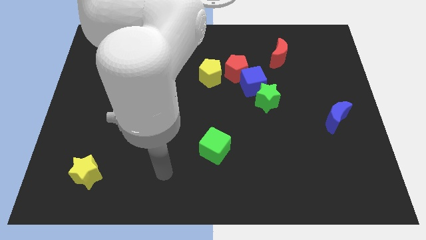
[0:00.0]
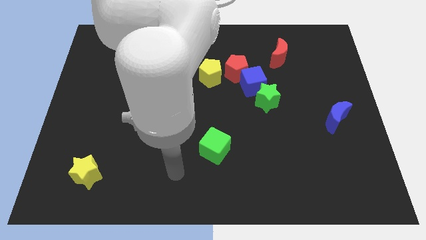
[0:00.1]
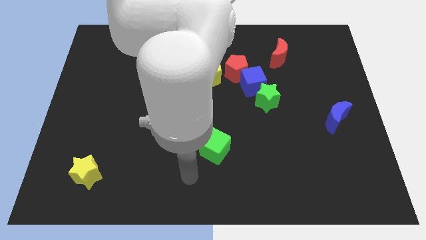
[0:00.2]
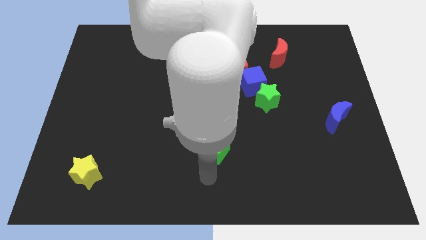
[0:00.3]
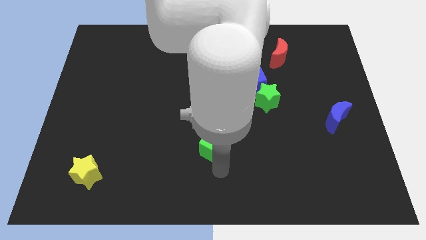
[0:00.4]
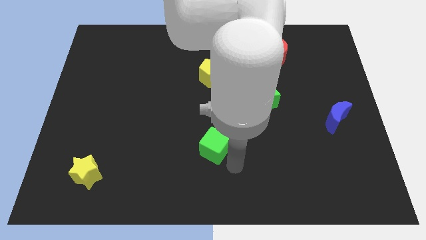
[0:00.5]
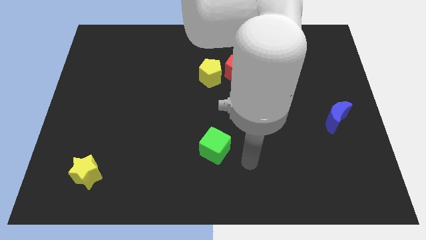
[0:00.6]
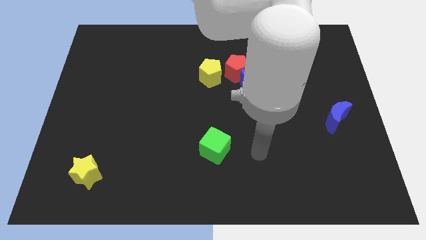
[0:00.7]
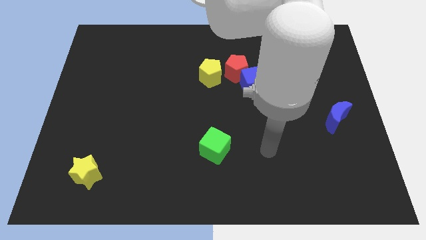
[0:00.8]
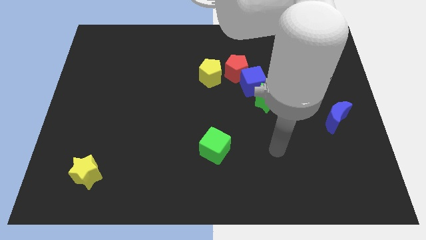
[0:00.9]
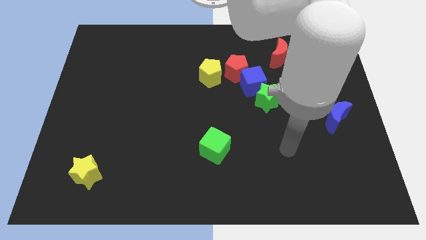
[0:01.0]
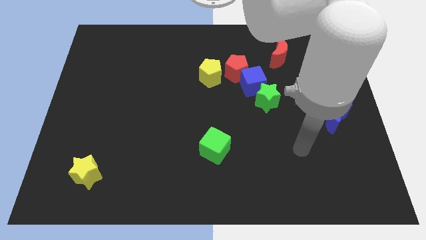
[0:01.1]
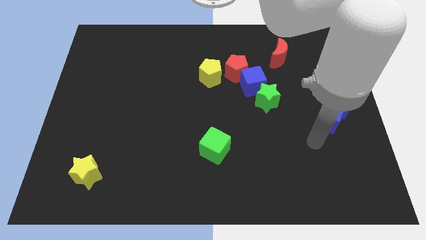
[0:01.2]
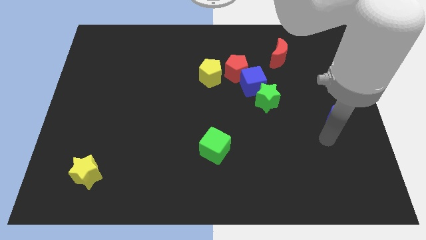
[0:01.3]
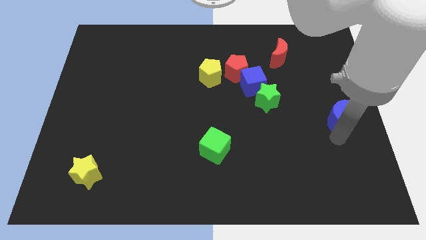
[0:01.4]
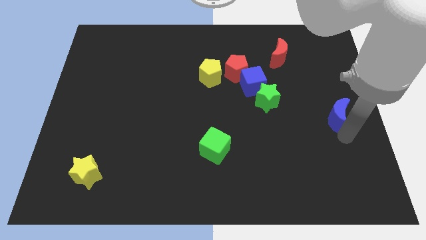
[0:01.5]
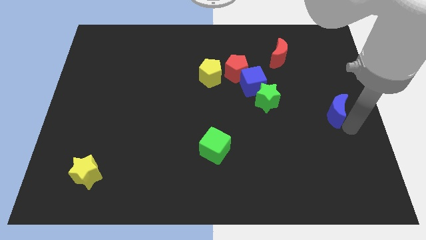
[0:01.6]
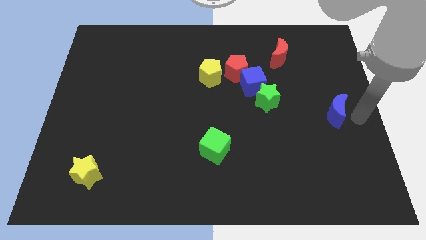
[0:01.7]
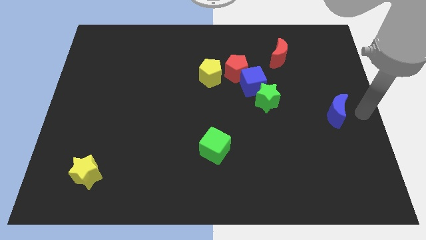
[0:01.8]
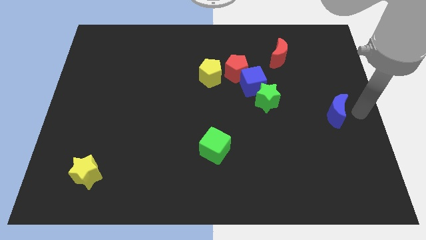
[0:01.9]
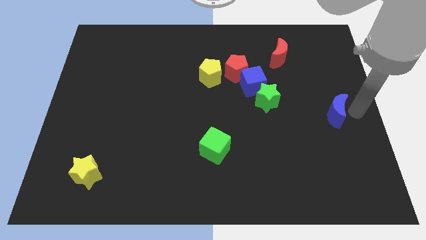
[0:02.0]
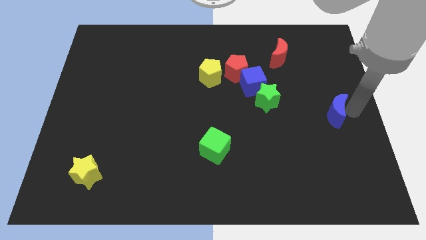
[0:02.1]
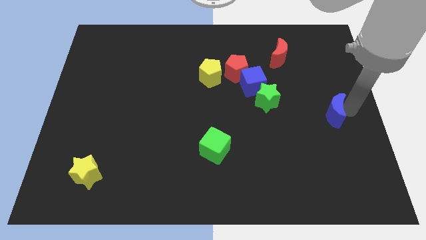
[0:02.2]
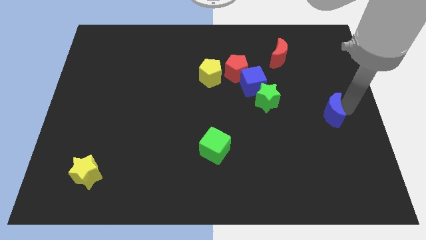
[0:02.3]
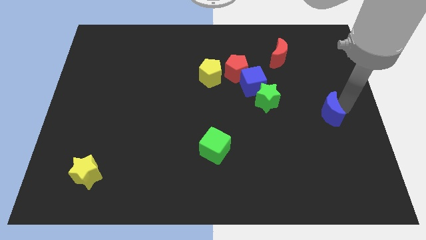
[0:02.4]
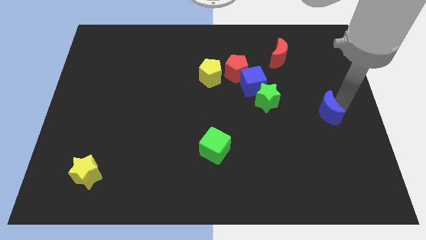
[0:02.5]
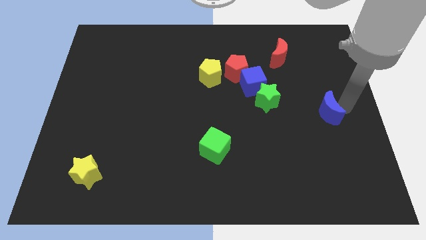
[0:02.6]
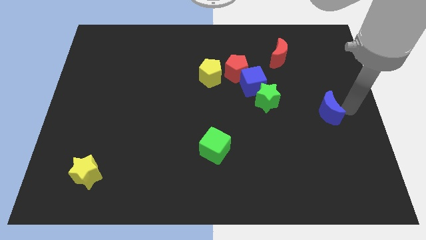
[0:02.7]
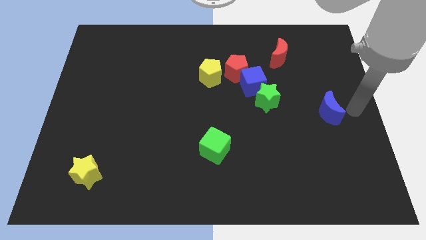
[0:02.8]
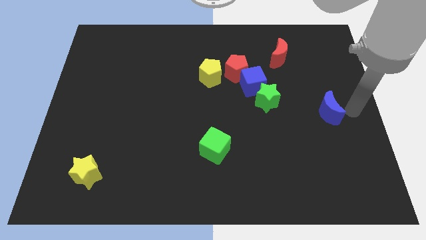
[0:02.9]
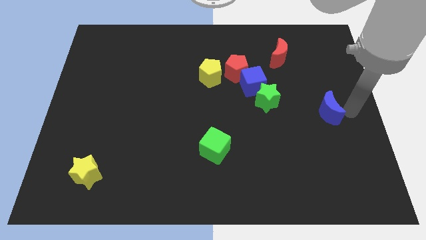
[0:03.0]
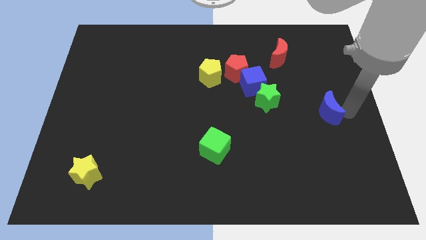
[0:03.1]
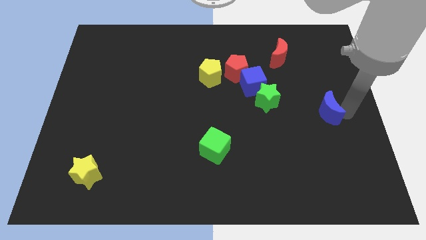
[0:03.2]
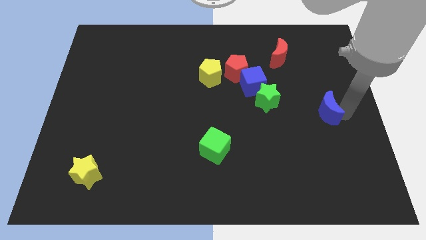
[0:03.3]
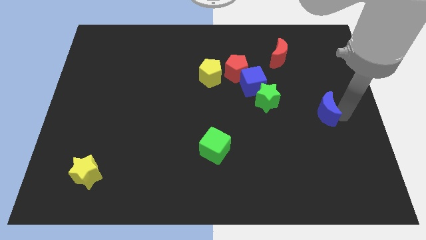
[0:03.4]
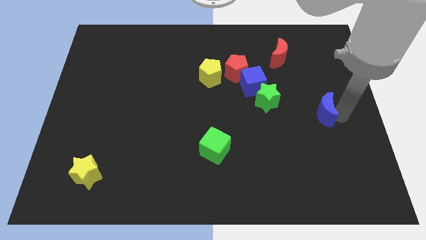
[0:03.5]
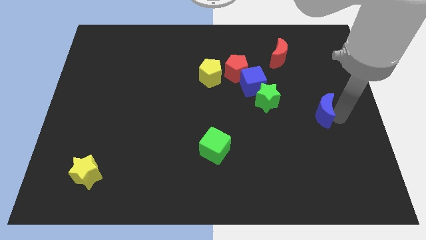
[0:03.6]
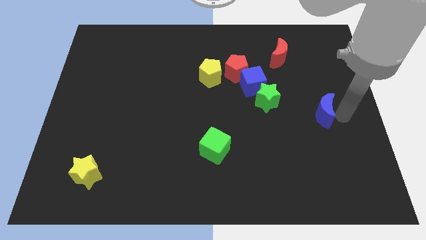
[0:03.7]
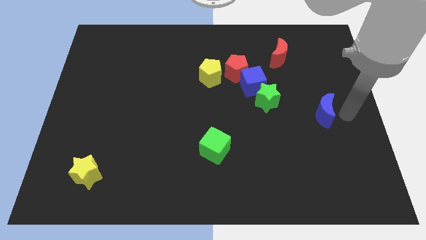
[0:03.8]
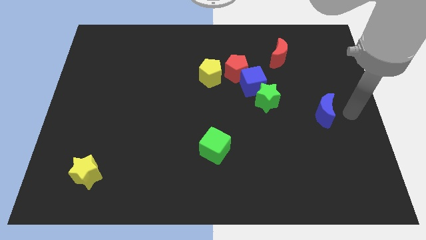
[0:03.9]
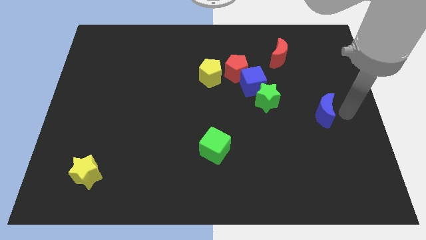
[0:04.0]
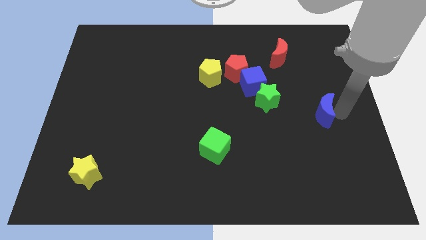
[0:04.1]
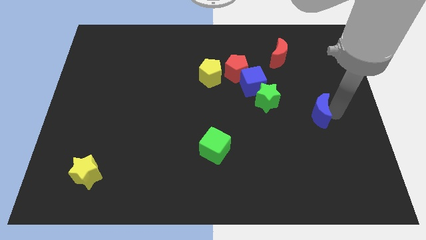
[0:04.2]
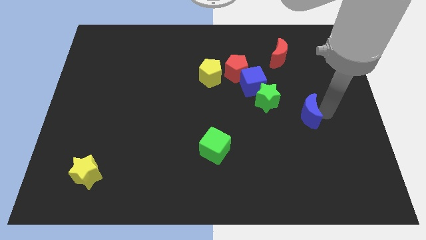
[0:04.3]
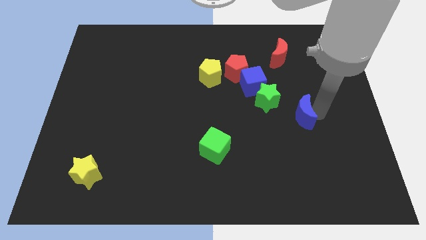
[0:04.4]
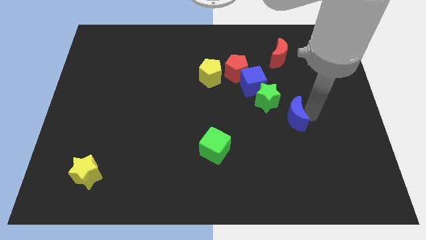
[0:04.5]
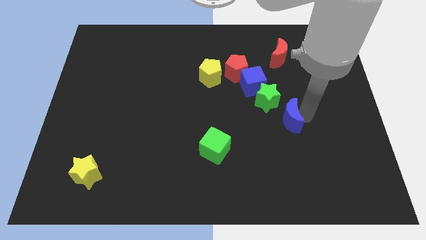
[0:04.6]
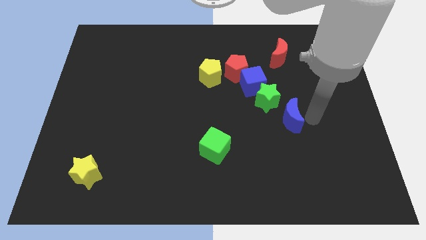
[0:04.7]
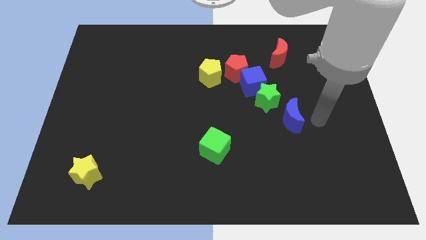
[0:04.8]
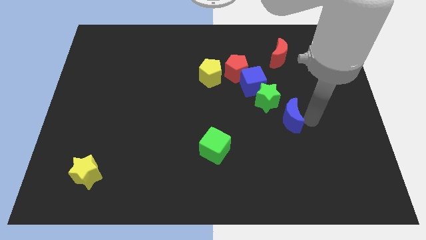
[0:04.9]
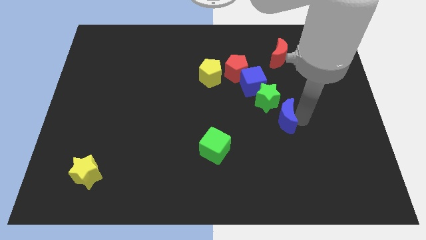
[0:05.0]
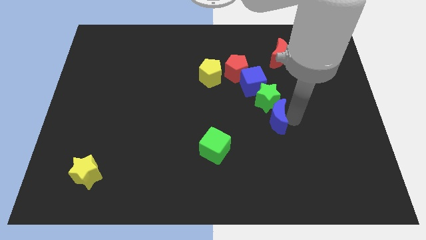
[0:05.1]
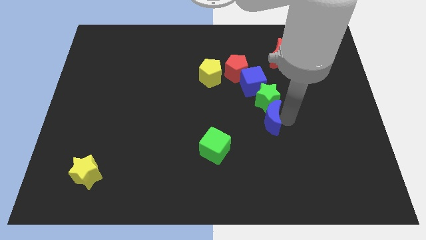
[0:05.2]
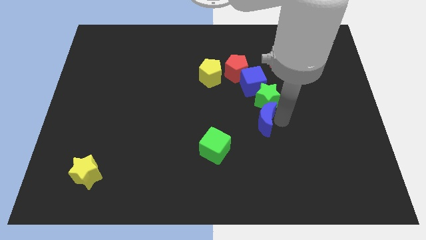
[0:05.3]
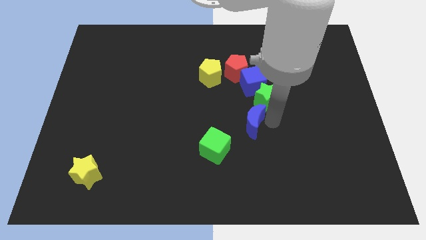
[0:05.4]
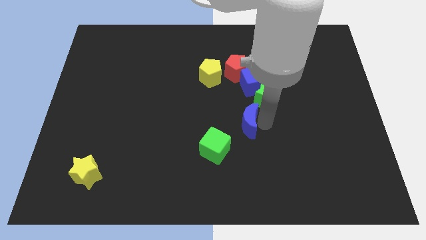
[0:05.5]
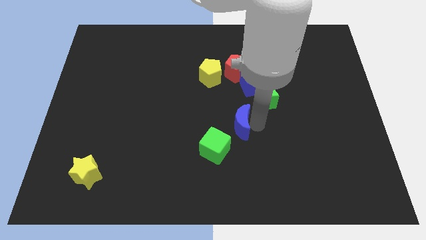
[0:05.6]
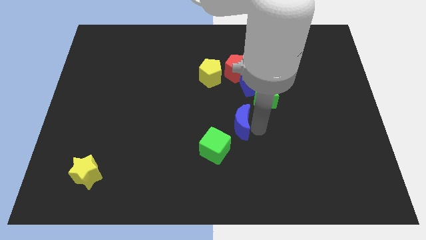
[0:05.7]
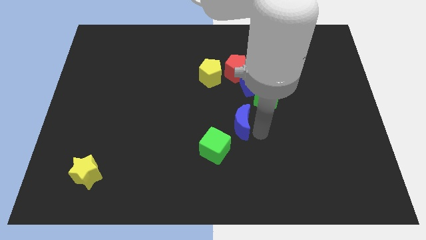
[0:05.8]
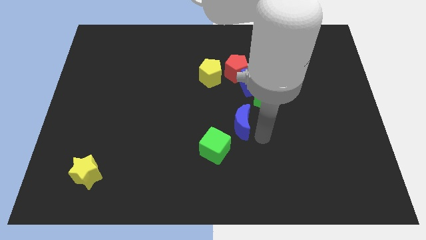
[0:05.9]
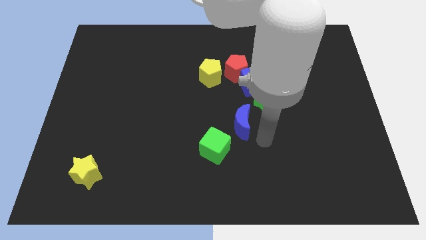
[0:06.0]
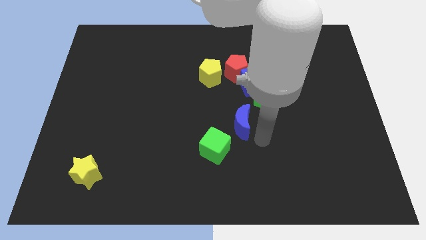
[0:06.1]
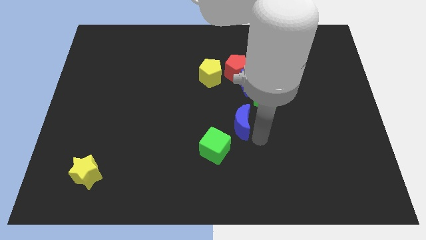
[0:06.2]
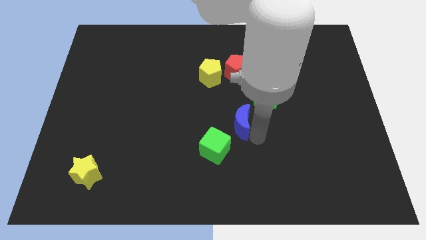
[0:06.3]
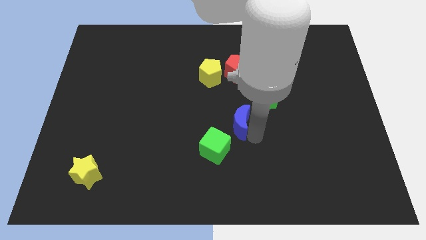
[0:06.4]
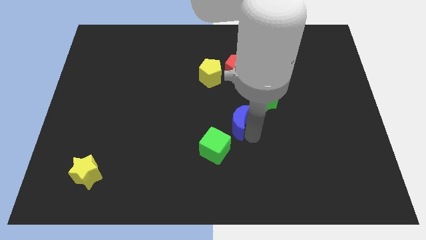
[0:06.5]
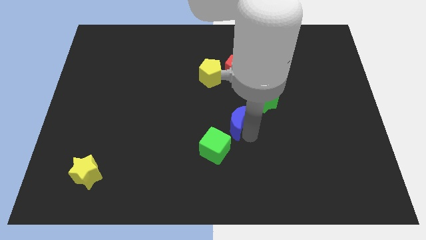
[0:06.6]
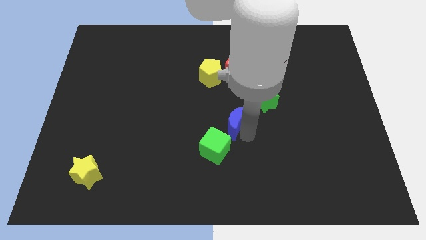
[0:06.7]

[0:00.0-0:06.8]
move the blue moon to the top side of the green cube
